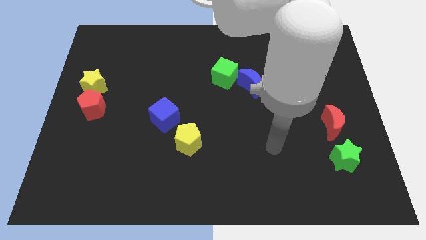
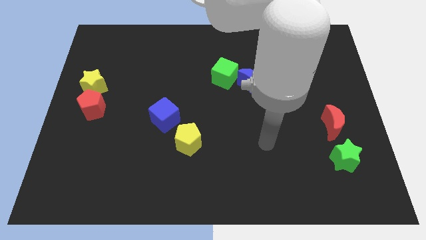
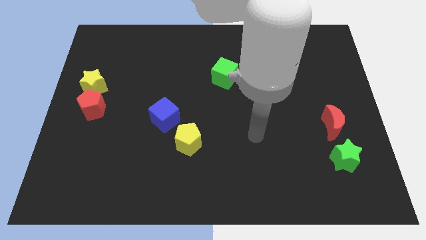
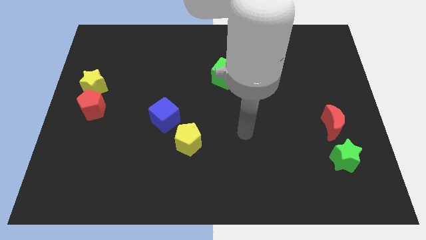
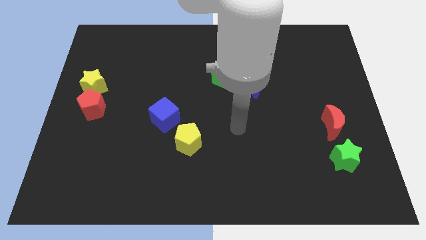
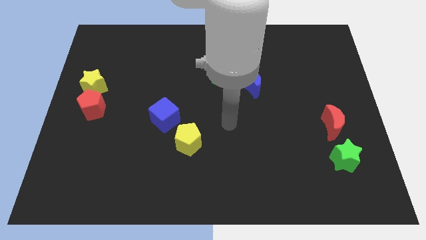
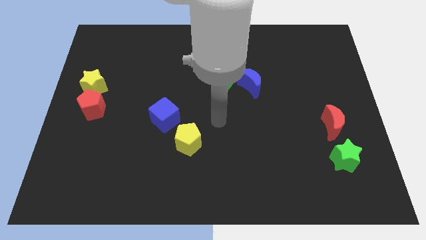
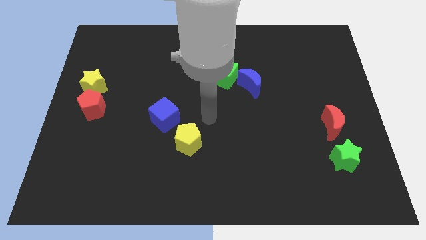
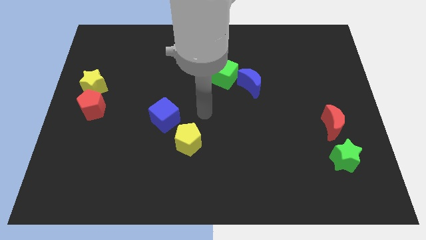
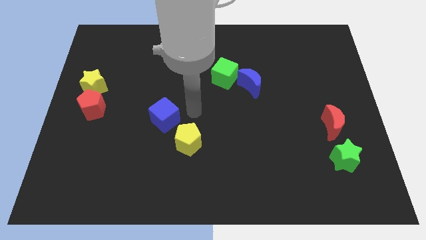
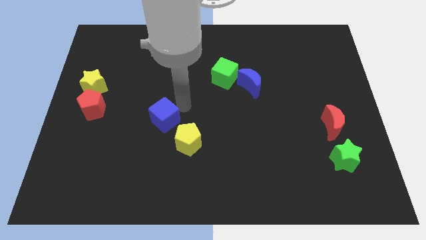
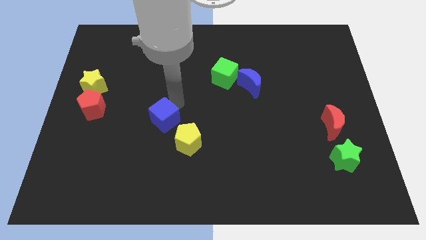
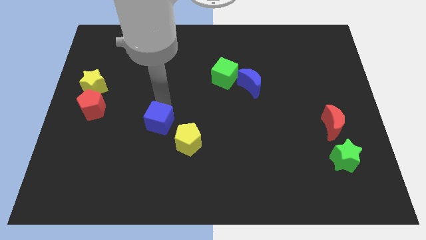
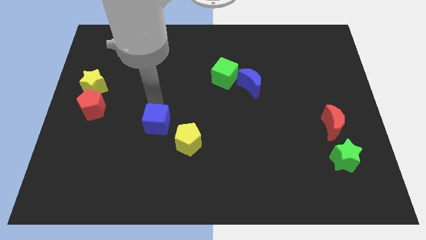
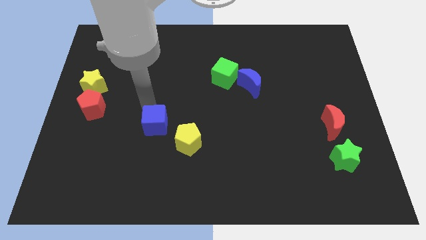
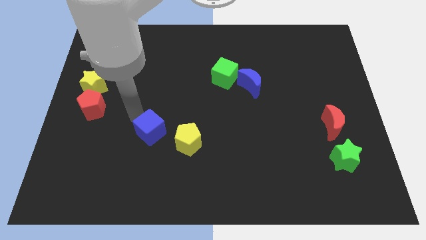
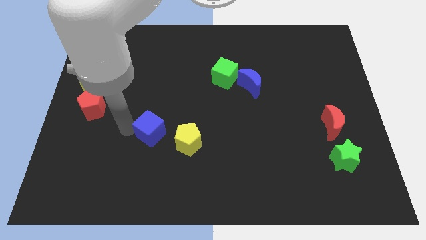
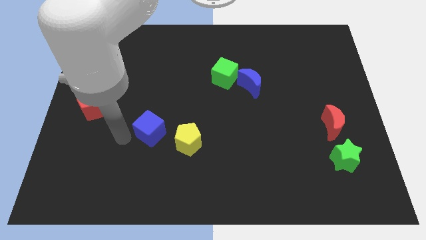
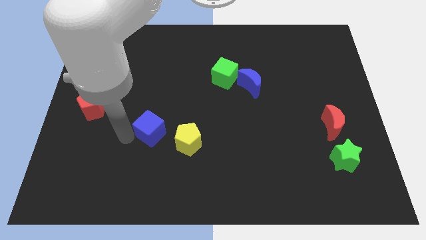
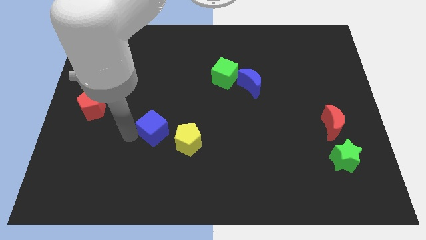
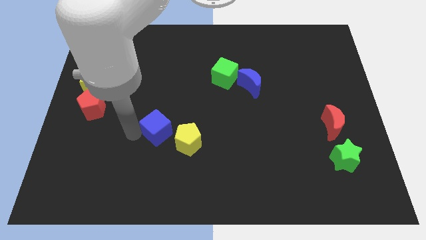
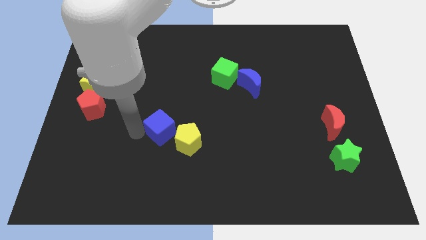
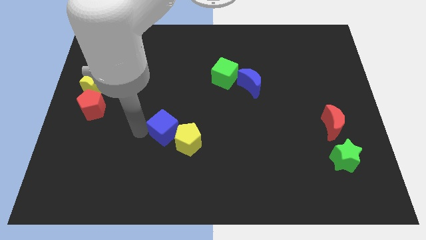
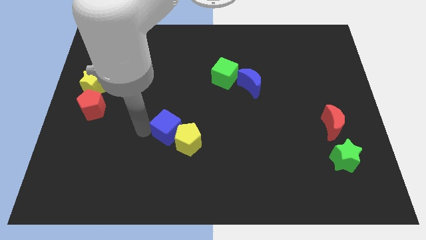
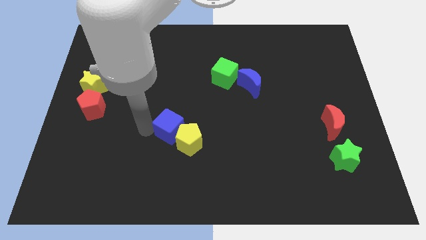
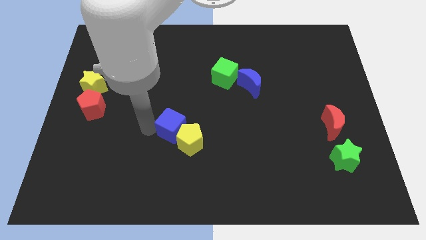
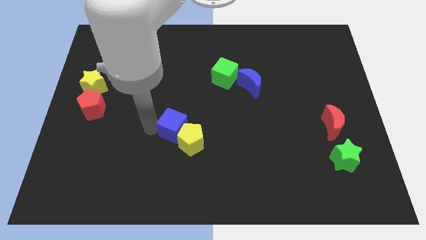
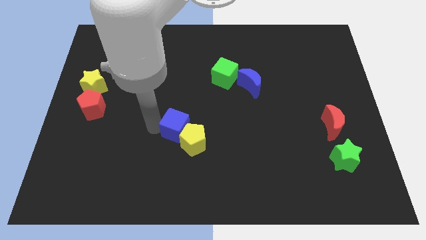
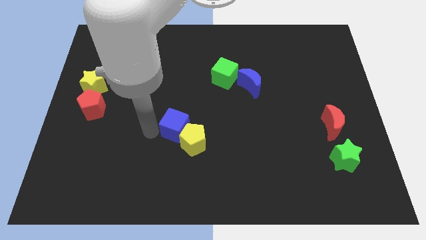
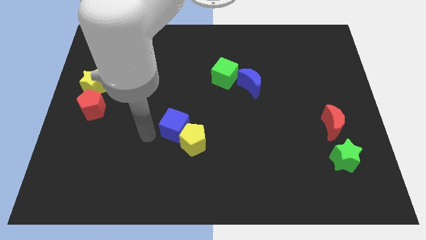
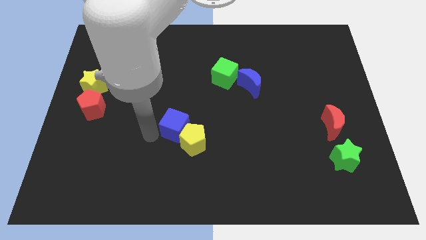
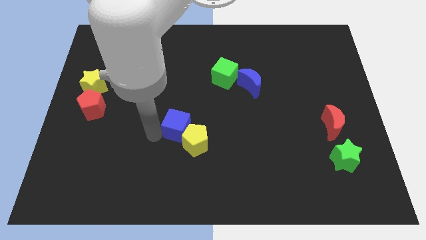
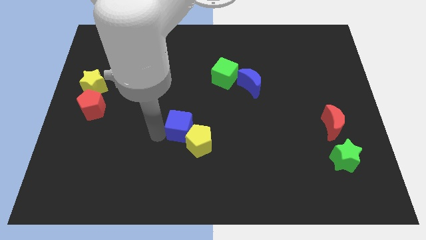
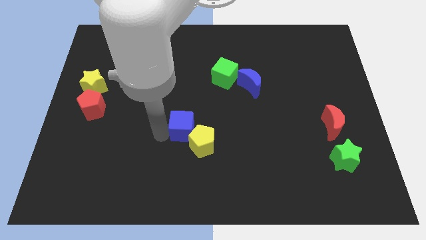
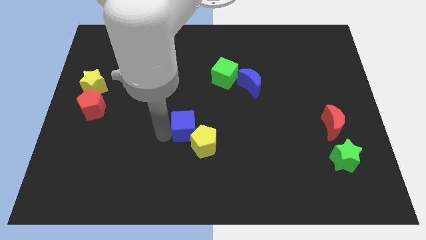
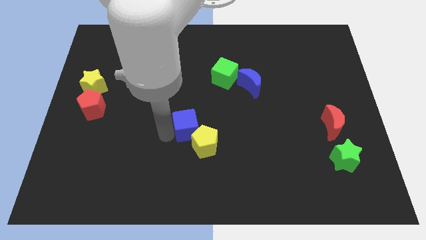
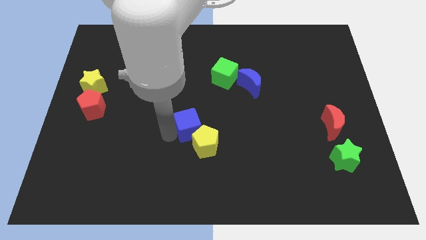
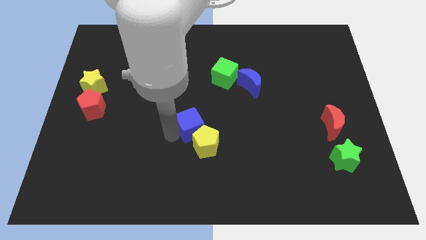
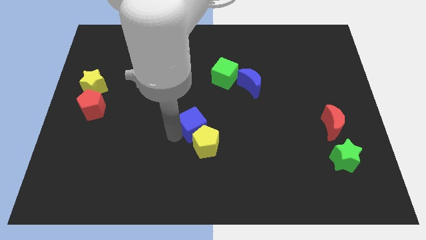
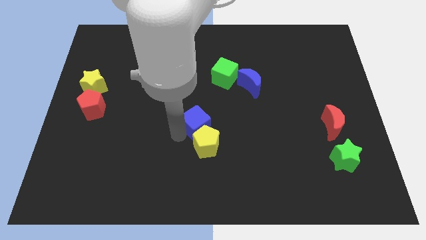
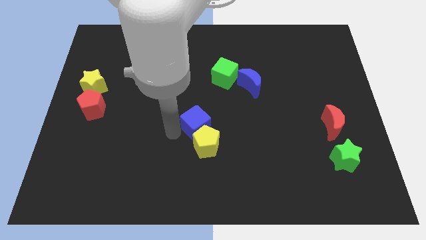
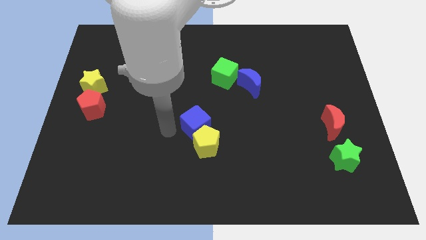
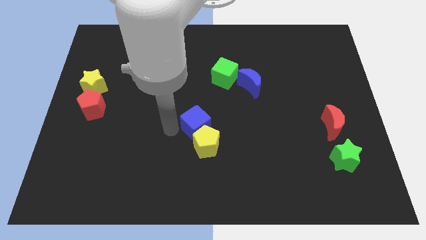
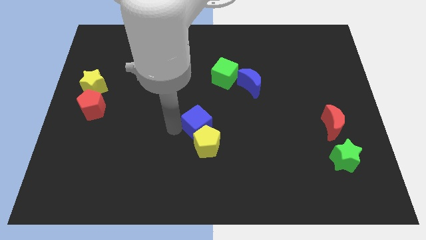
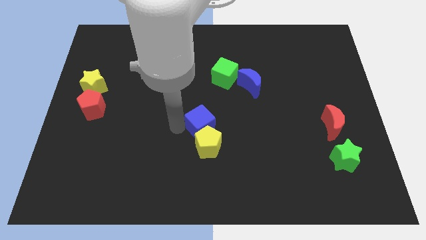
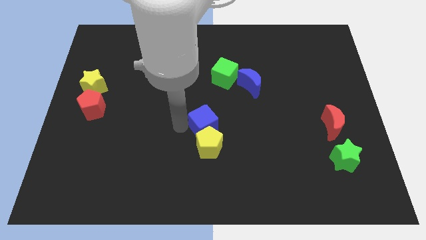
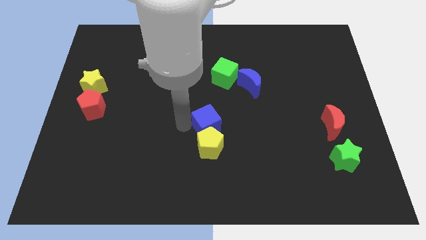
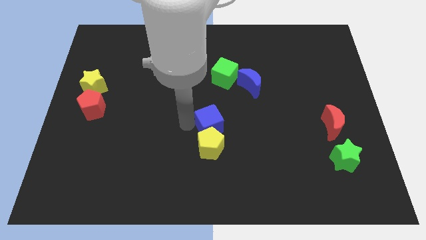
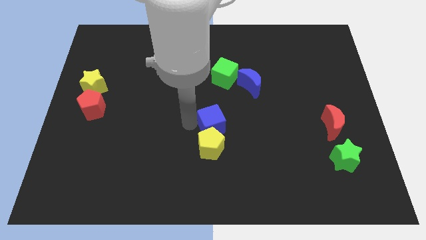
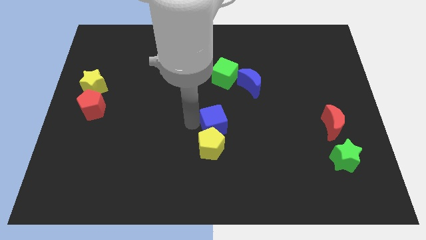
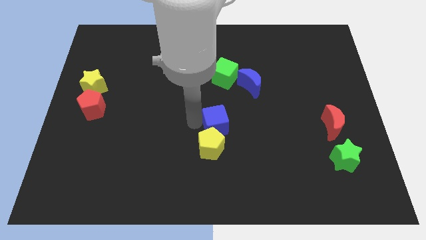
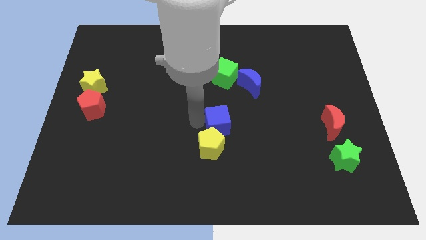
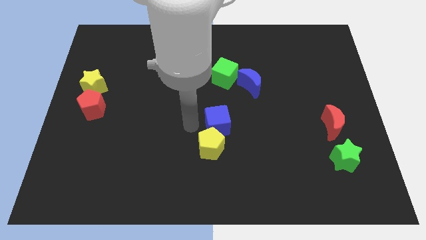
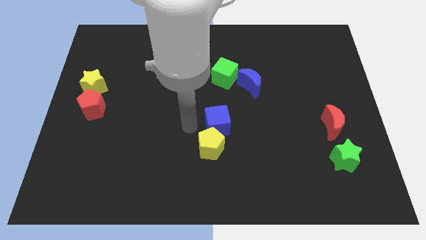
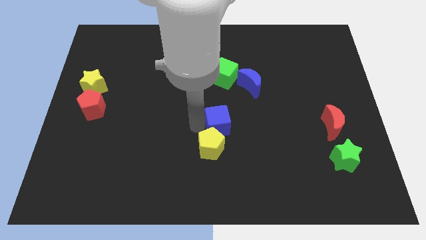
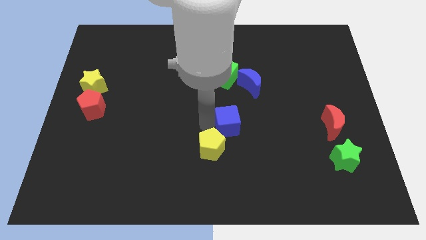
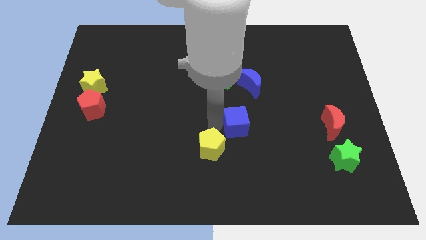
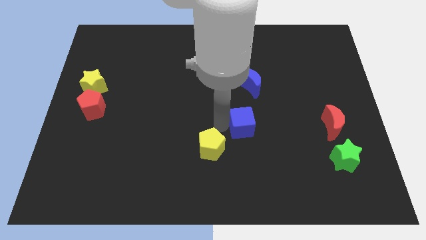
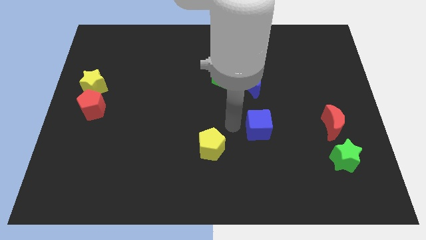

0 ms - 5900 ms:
slide the blue cube right

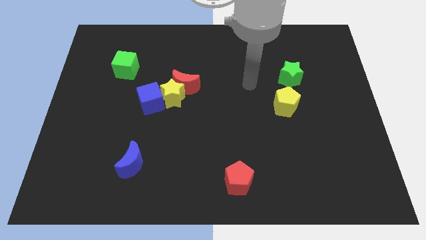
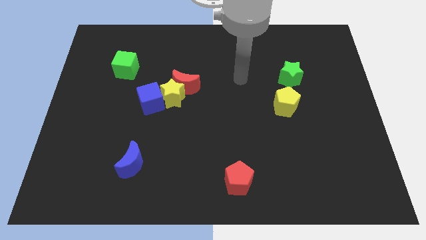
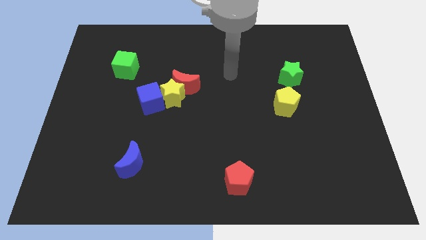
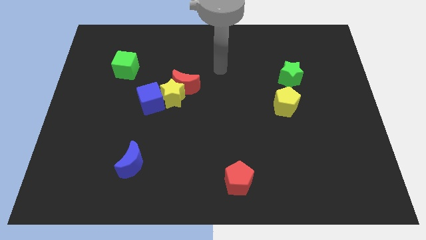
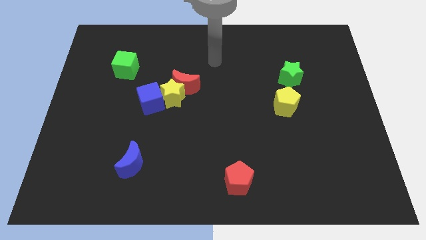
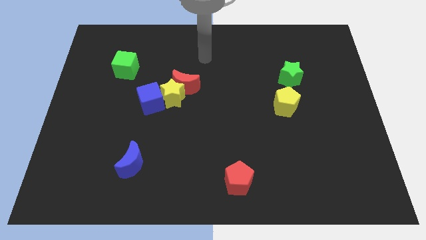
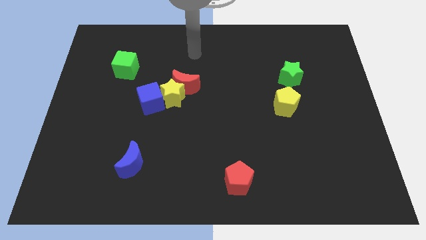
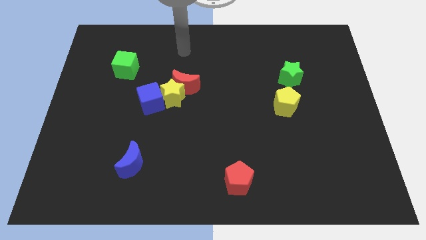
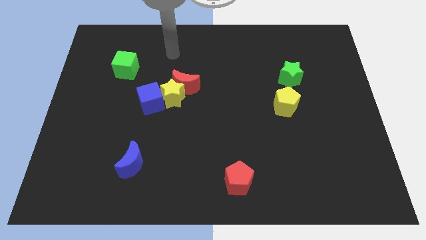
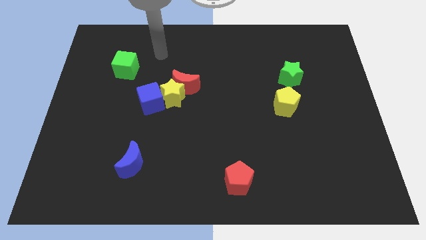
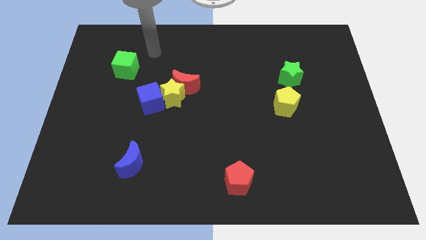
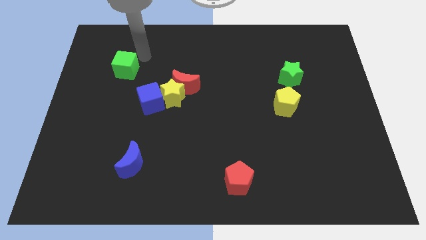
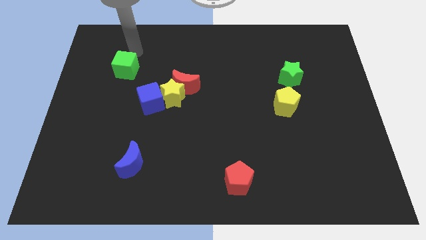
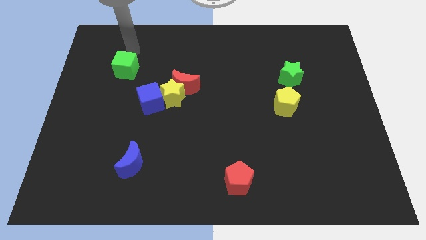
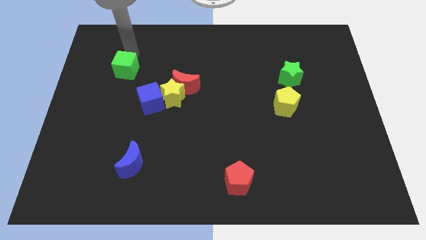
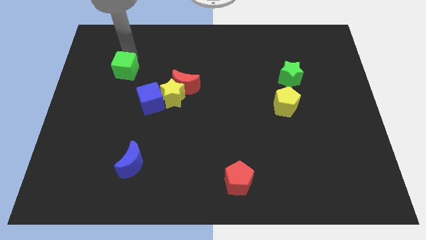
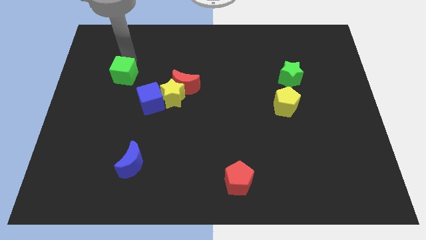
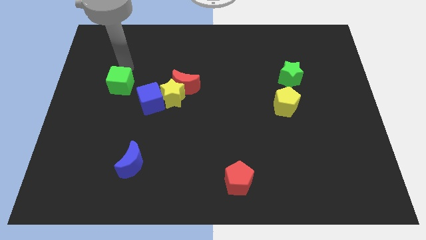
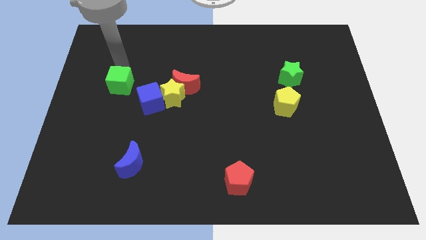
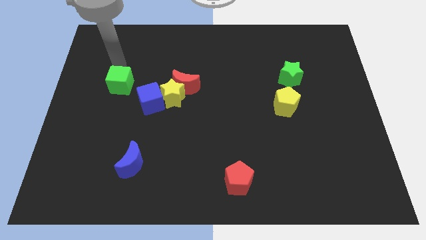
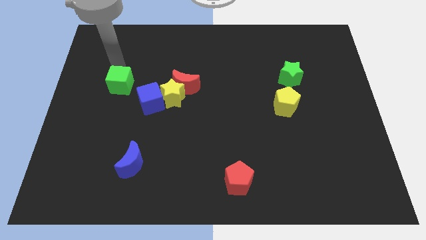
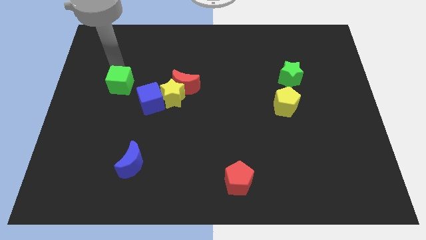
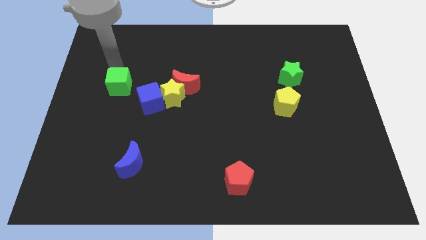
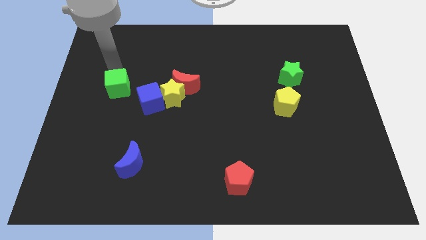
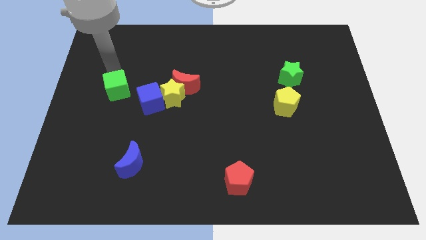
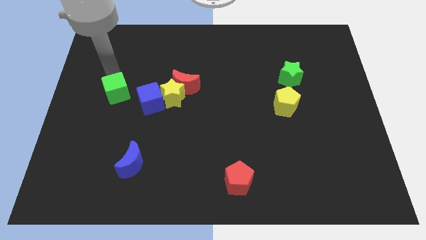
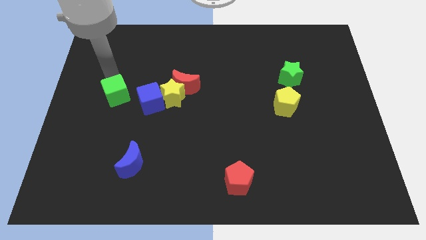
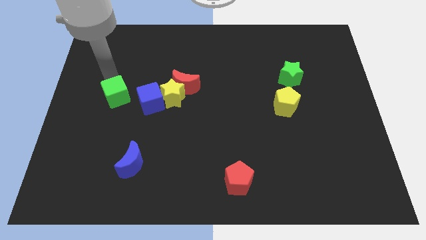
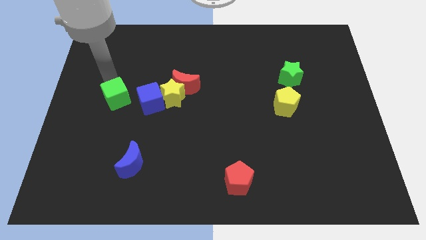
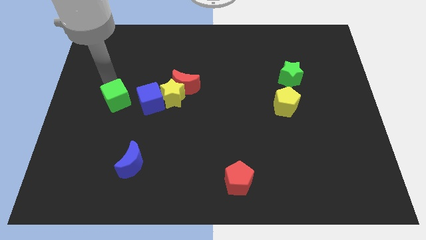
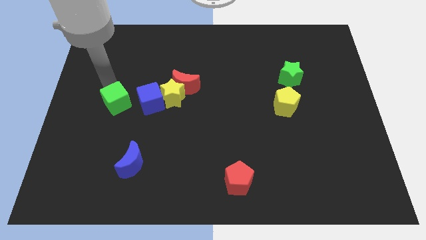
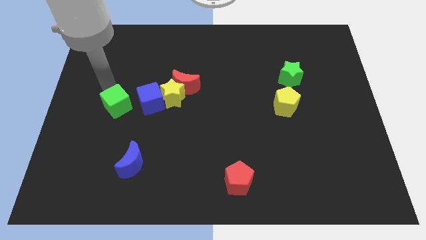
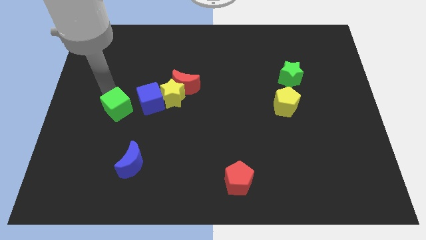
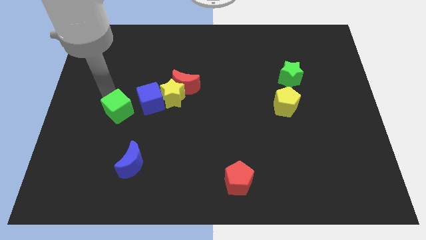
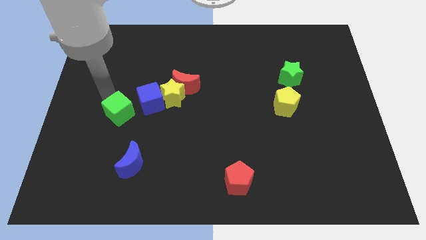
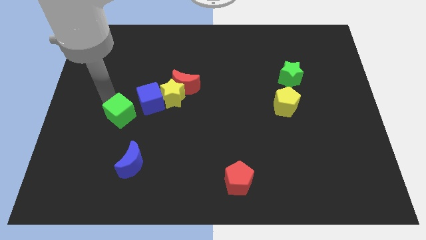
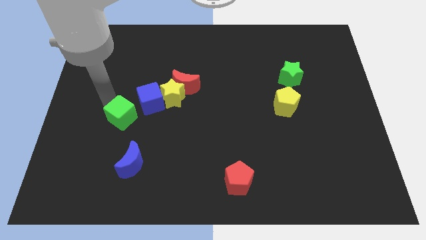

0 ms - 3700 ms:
push the green cube downwards and right diagonally a little
